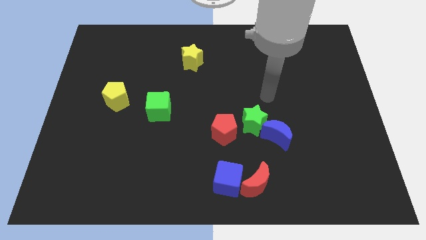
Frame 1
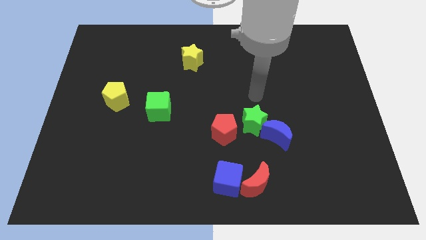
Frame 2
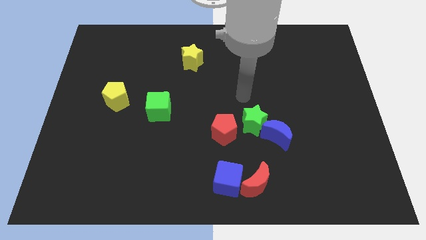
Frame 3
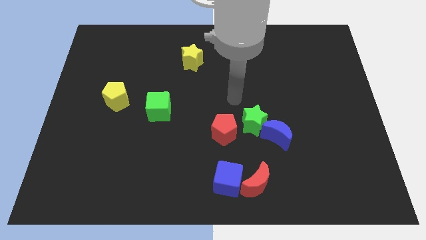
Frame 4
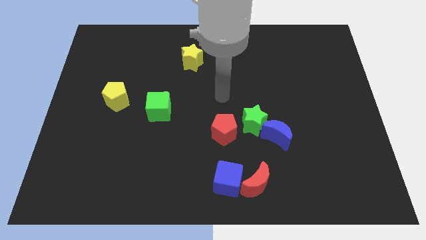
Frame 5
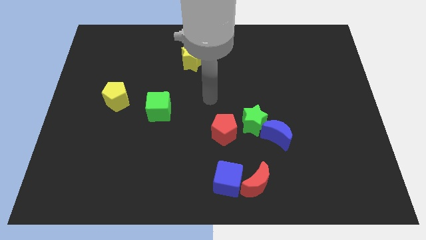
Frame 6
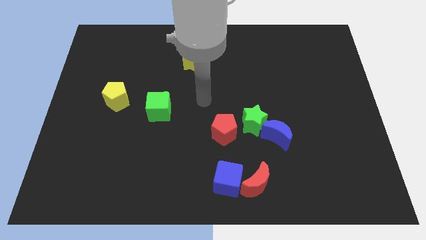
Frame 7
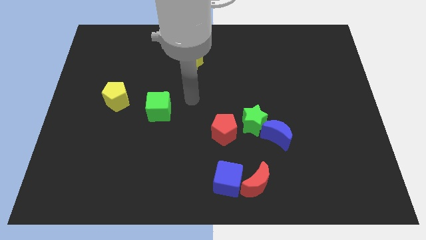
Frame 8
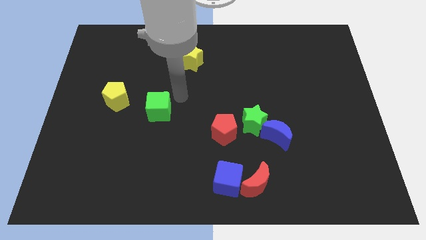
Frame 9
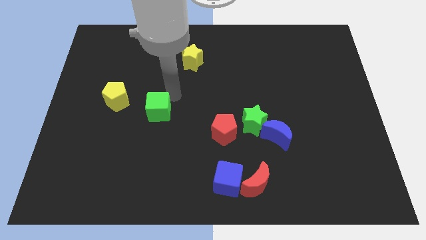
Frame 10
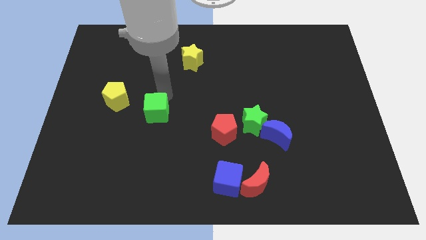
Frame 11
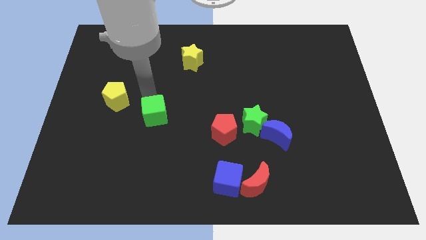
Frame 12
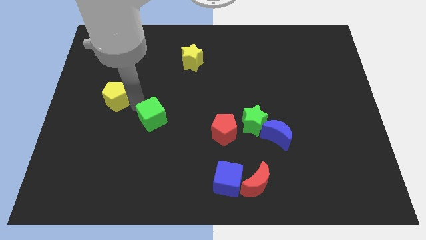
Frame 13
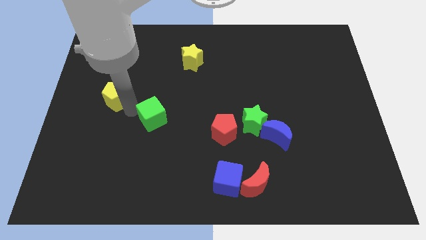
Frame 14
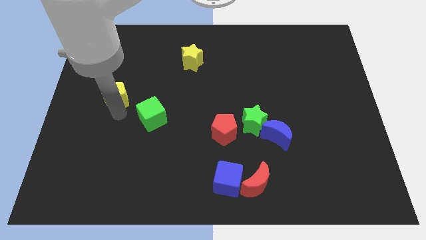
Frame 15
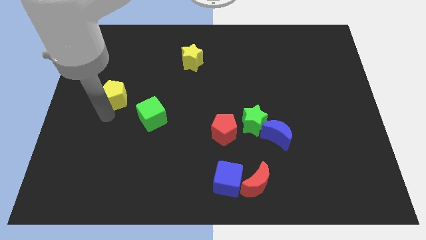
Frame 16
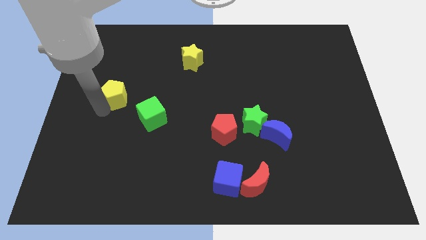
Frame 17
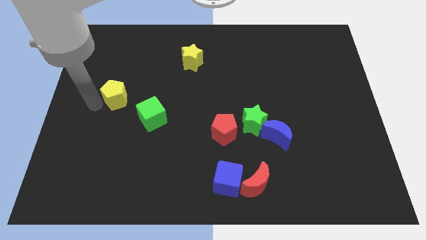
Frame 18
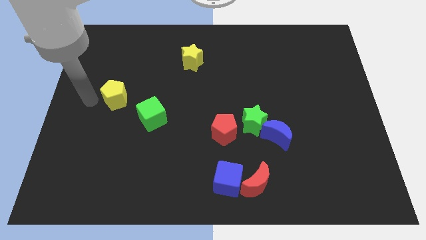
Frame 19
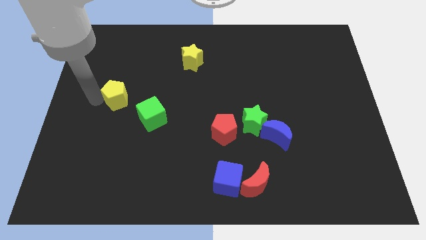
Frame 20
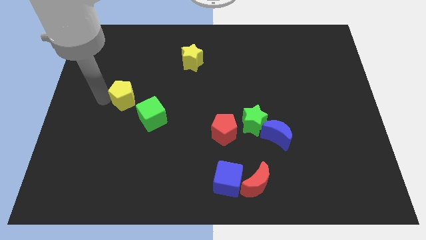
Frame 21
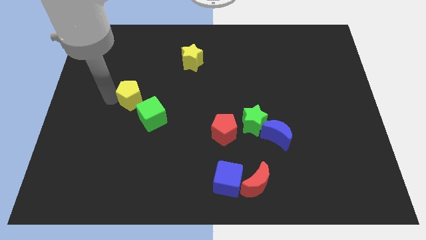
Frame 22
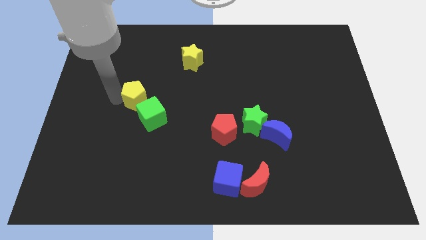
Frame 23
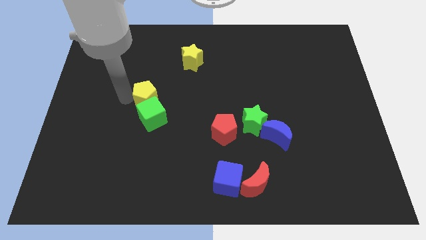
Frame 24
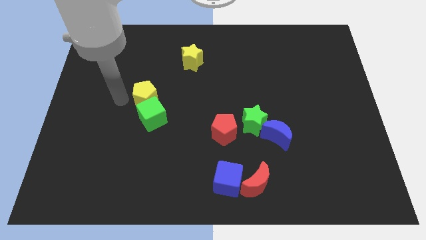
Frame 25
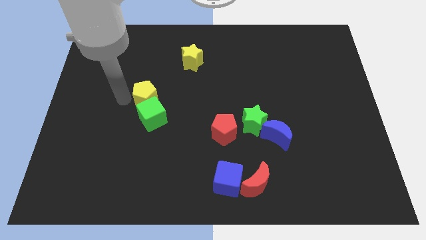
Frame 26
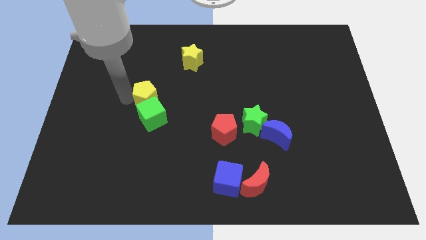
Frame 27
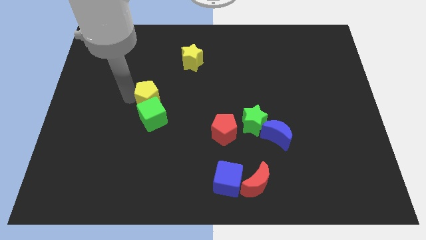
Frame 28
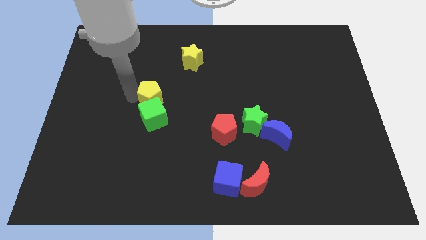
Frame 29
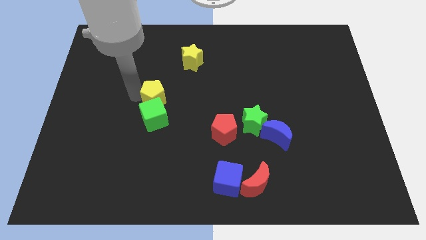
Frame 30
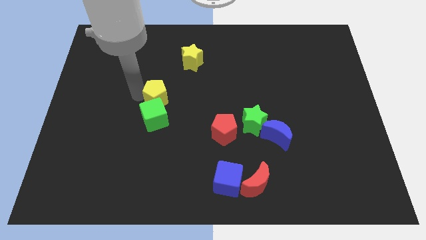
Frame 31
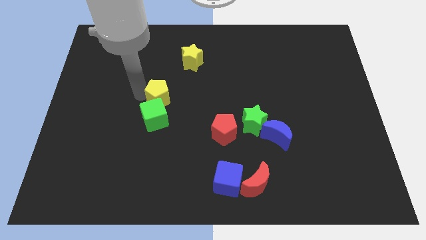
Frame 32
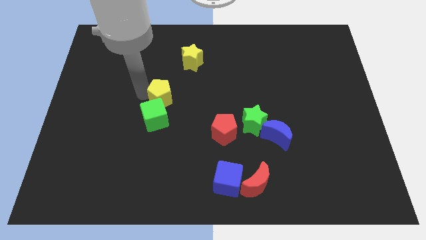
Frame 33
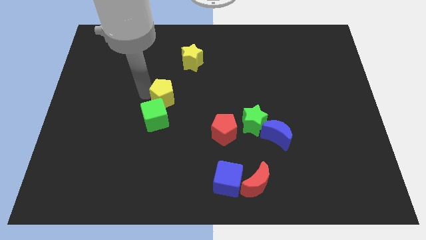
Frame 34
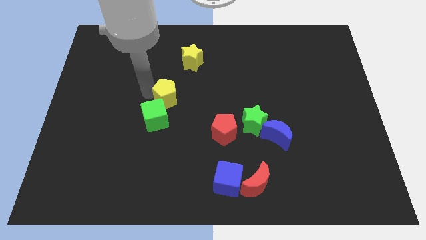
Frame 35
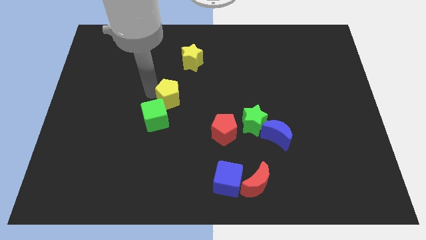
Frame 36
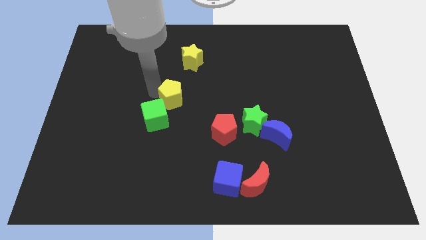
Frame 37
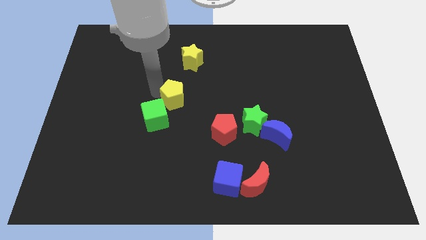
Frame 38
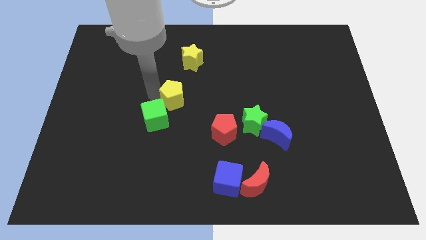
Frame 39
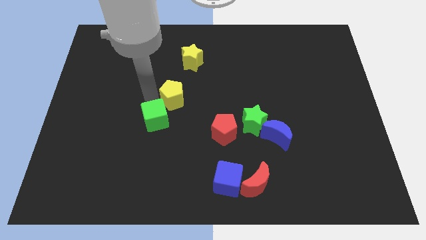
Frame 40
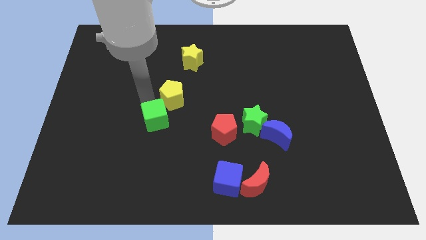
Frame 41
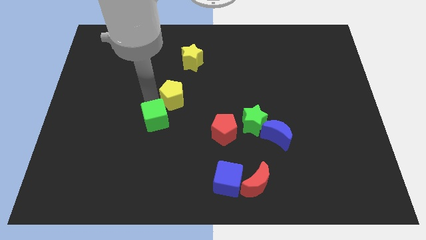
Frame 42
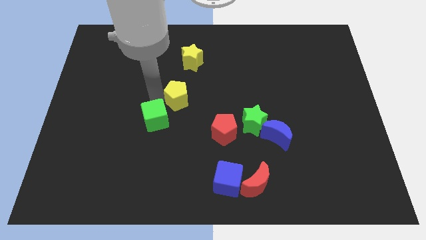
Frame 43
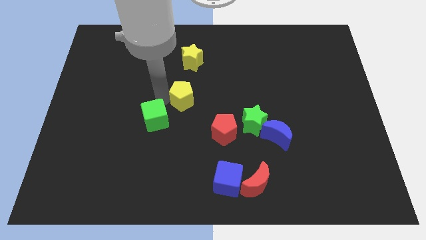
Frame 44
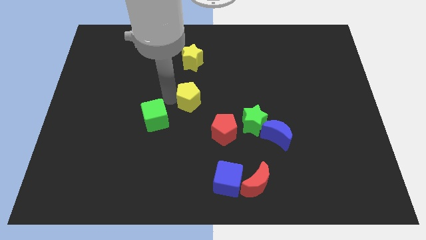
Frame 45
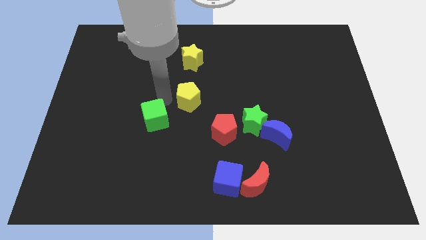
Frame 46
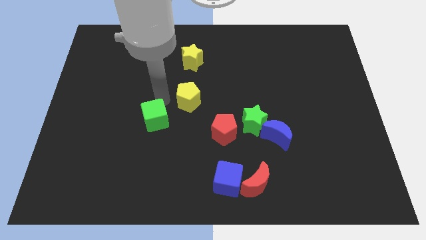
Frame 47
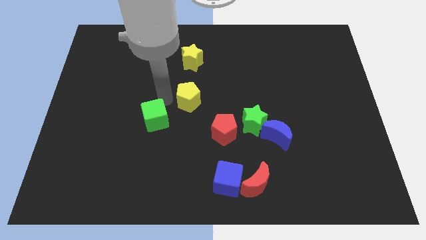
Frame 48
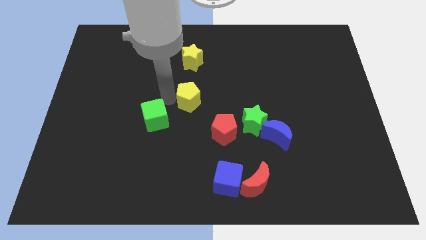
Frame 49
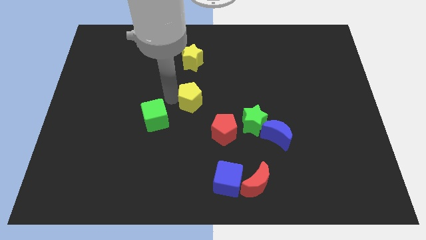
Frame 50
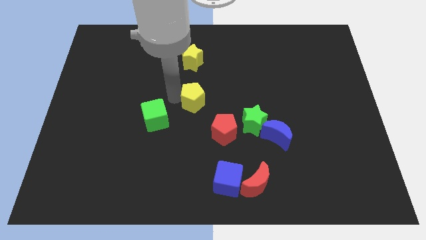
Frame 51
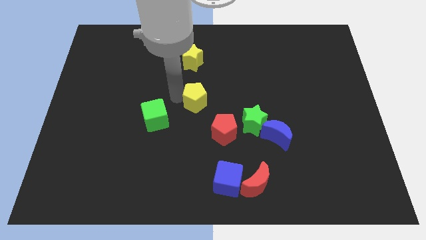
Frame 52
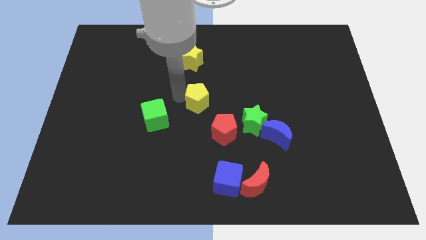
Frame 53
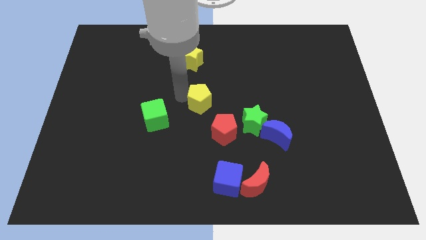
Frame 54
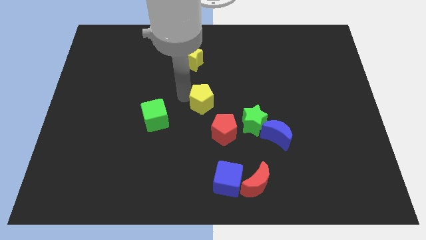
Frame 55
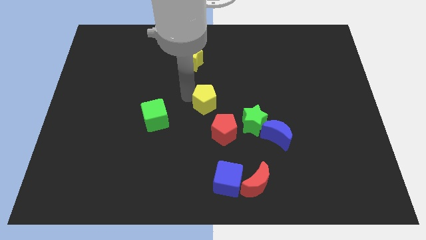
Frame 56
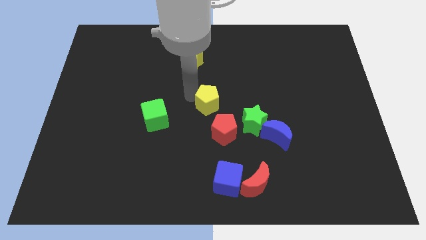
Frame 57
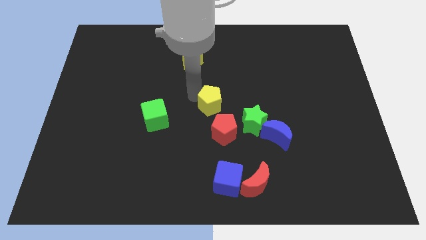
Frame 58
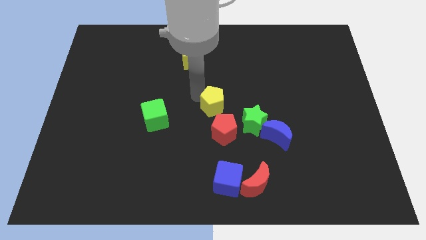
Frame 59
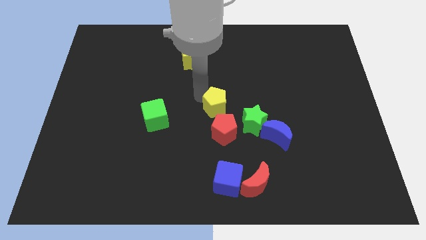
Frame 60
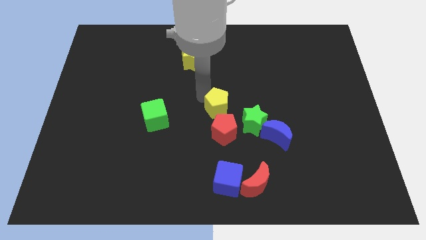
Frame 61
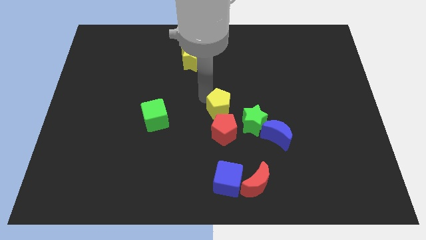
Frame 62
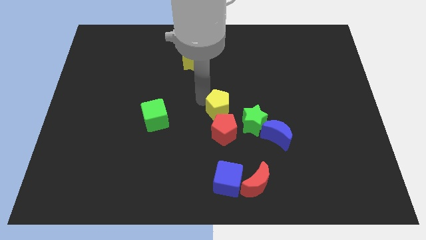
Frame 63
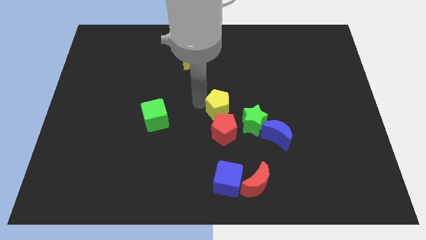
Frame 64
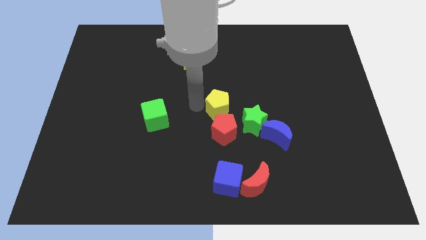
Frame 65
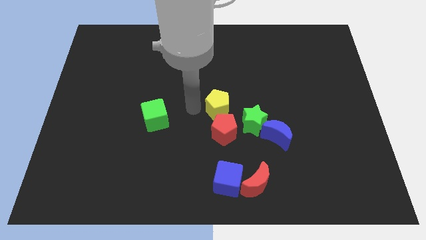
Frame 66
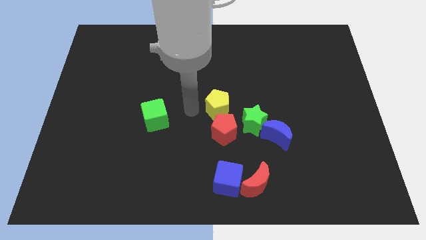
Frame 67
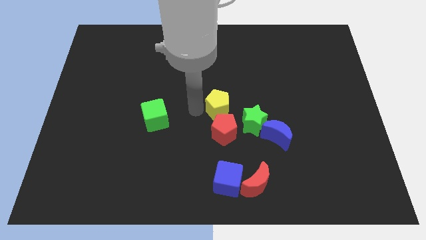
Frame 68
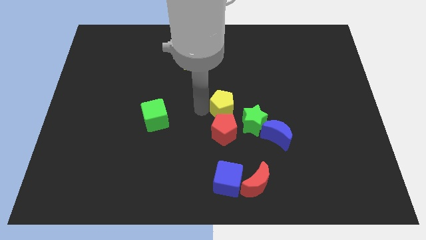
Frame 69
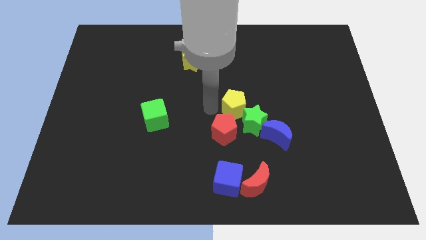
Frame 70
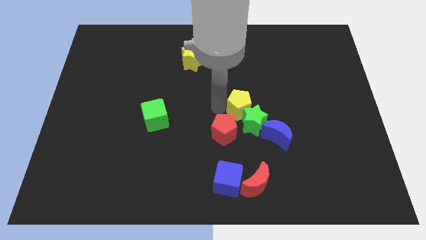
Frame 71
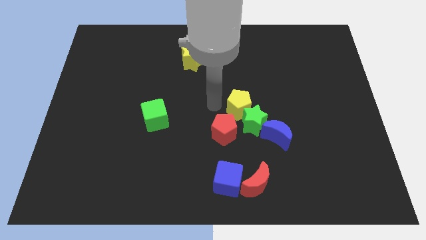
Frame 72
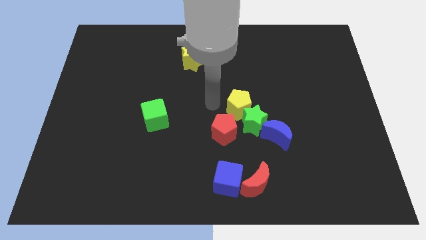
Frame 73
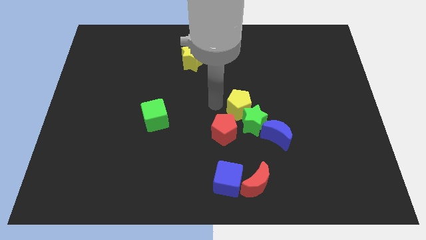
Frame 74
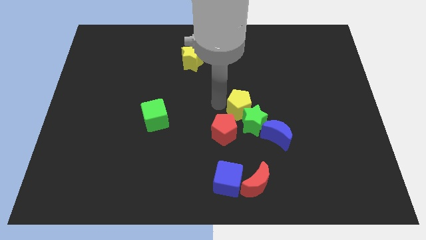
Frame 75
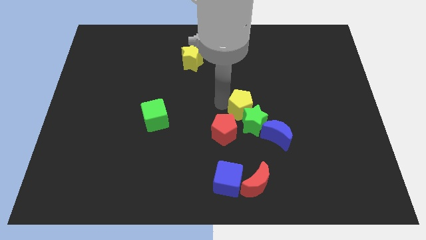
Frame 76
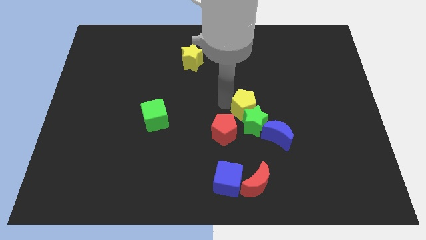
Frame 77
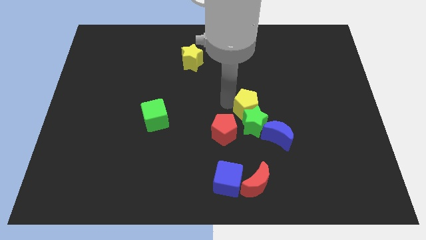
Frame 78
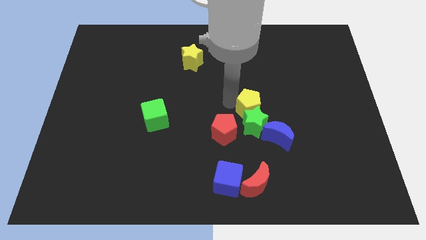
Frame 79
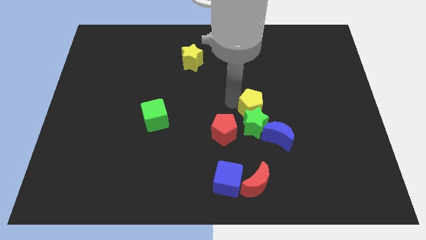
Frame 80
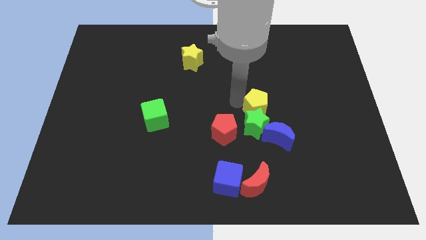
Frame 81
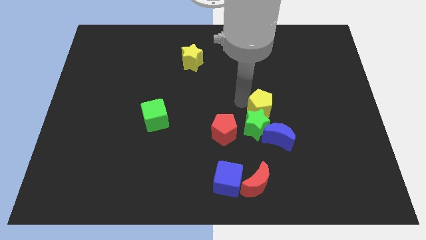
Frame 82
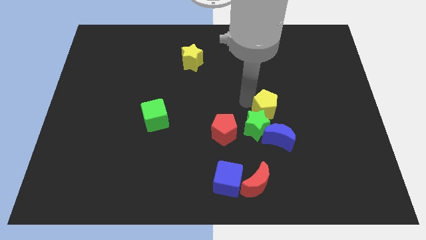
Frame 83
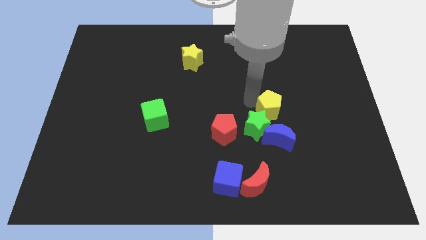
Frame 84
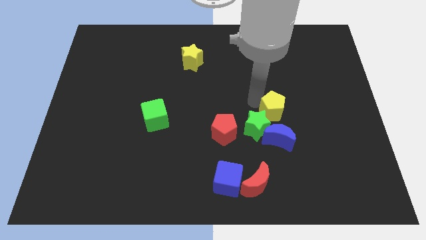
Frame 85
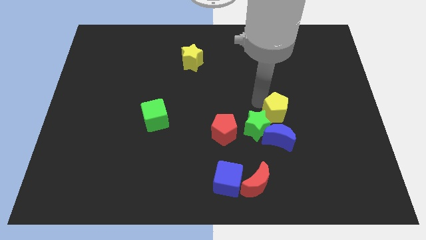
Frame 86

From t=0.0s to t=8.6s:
push the yellow pentagon right of the green star
